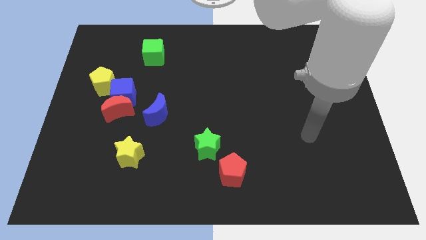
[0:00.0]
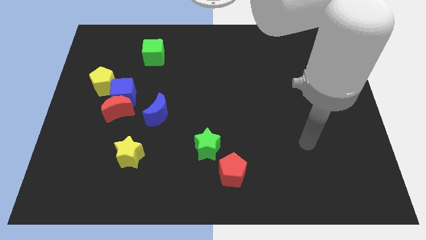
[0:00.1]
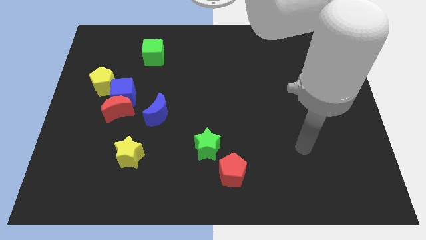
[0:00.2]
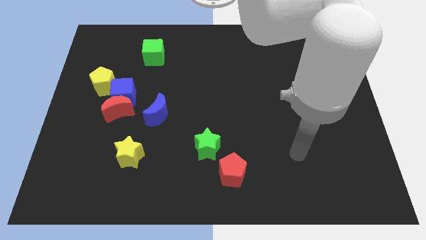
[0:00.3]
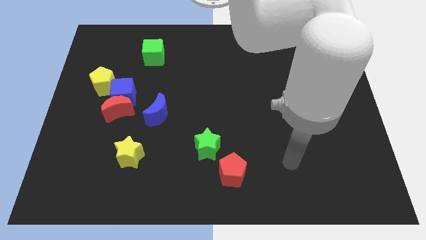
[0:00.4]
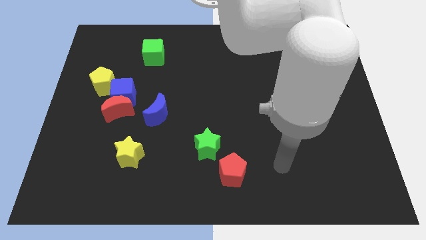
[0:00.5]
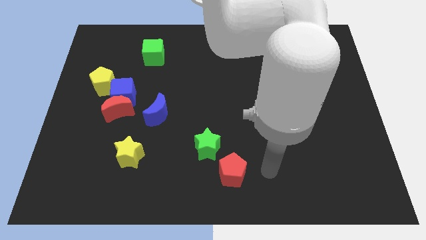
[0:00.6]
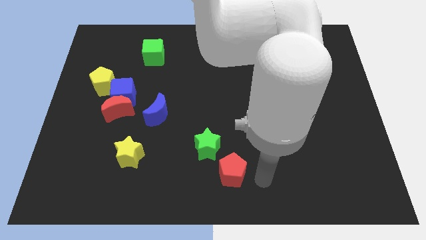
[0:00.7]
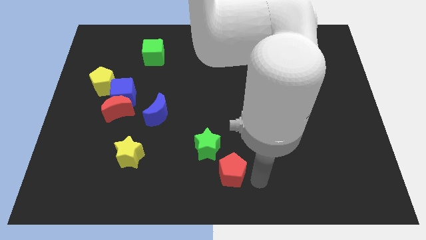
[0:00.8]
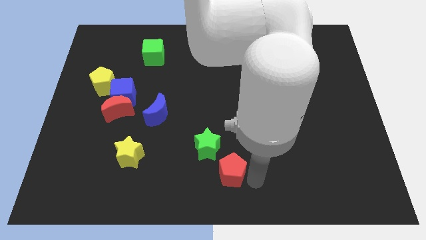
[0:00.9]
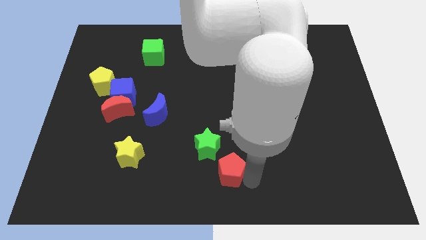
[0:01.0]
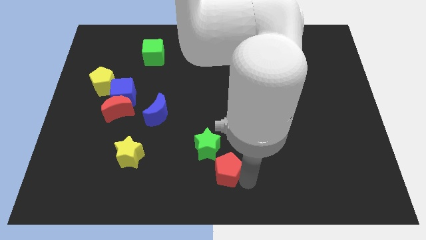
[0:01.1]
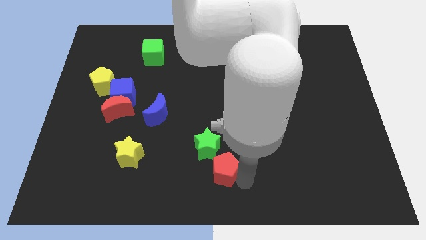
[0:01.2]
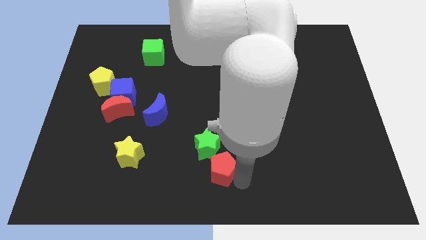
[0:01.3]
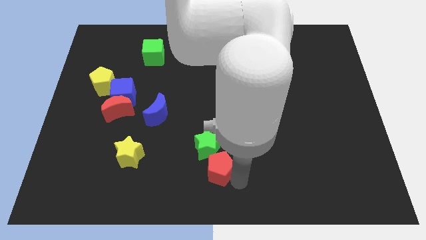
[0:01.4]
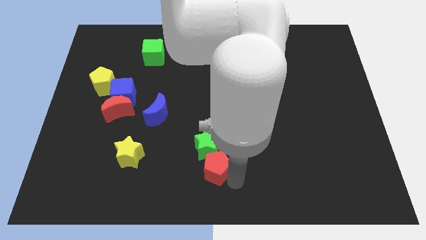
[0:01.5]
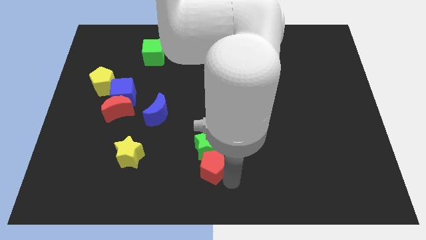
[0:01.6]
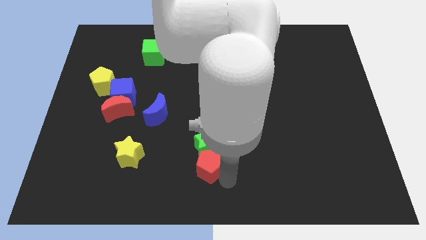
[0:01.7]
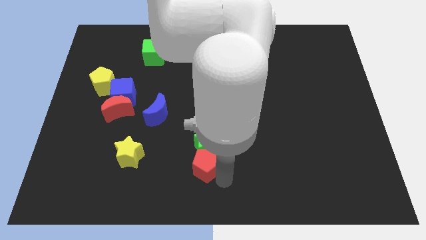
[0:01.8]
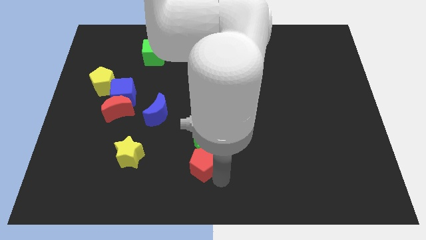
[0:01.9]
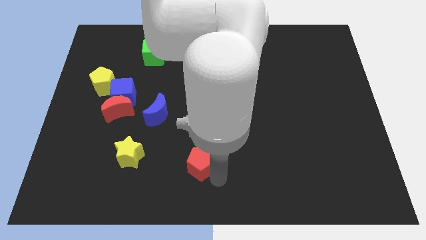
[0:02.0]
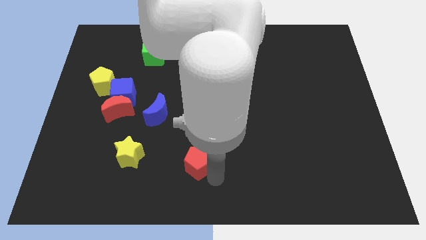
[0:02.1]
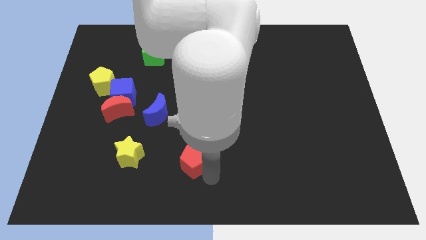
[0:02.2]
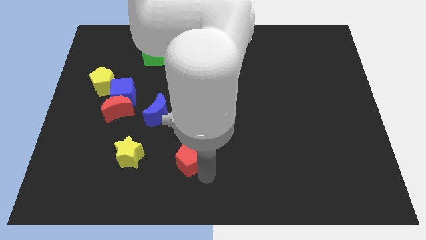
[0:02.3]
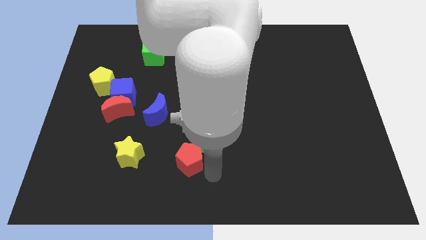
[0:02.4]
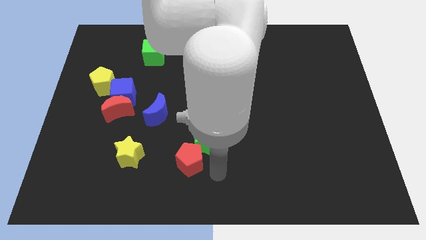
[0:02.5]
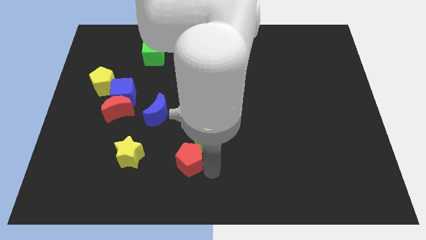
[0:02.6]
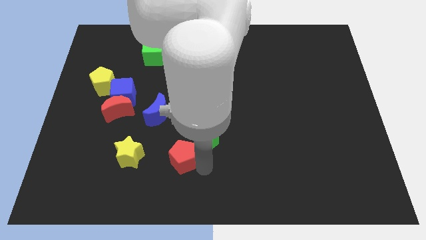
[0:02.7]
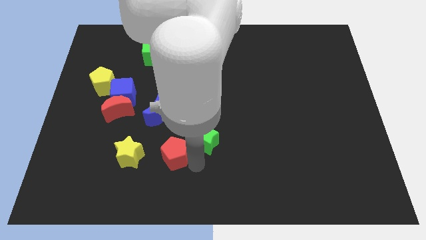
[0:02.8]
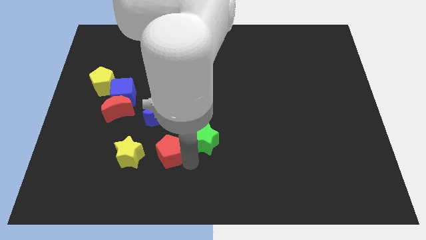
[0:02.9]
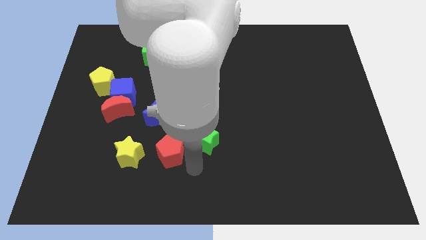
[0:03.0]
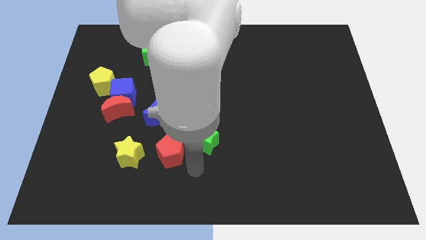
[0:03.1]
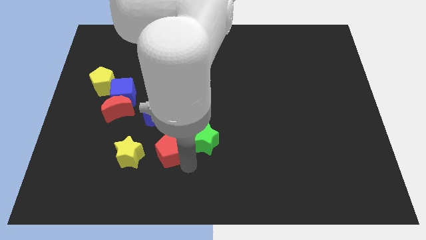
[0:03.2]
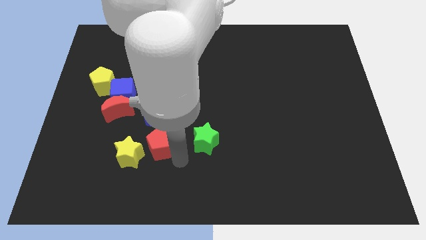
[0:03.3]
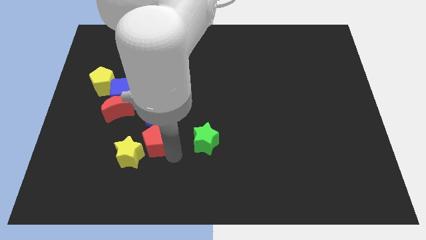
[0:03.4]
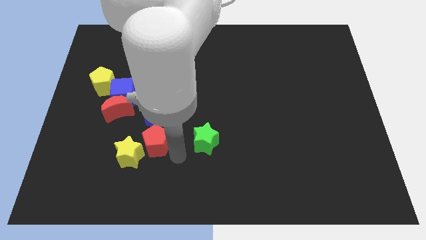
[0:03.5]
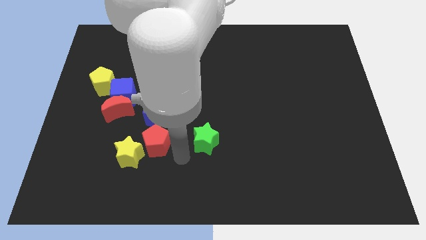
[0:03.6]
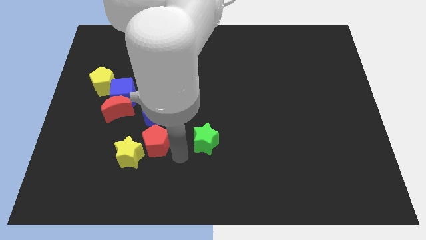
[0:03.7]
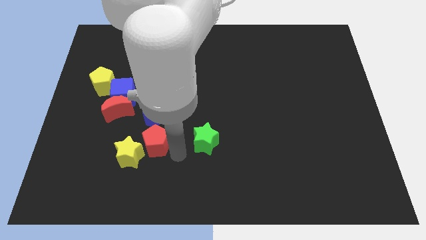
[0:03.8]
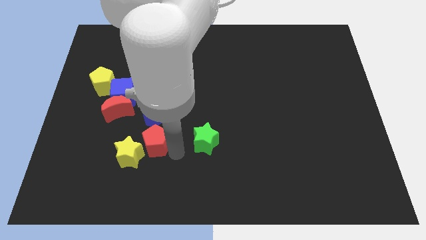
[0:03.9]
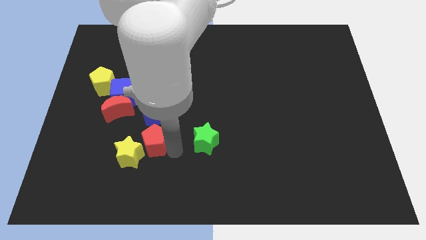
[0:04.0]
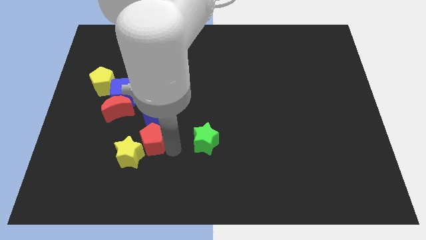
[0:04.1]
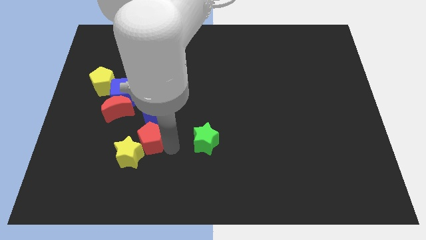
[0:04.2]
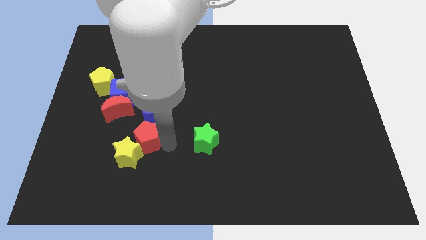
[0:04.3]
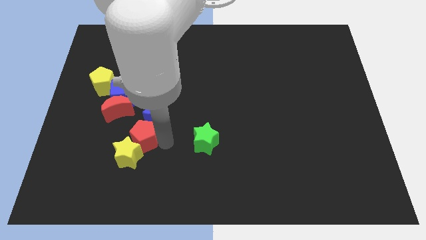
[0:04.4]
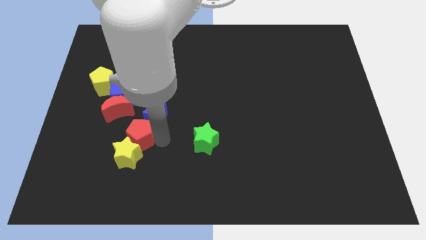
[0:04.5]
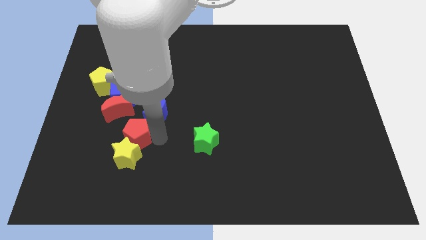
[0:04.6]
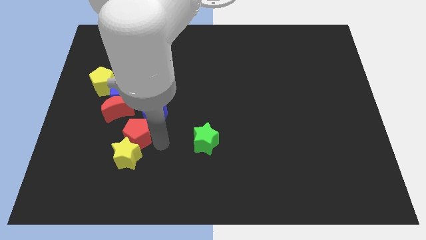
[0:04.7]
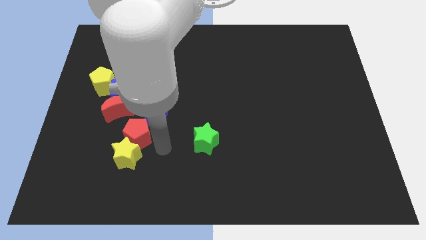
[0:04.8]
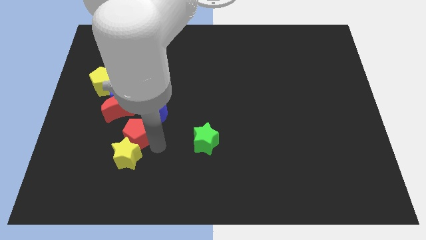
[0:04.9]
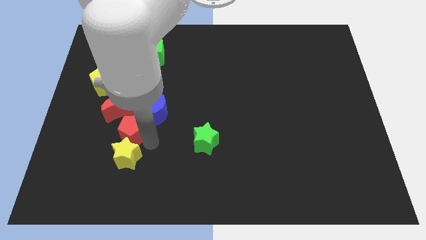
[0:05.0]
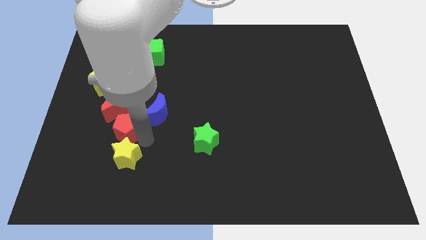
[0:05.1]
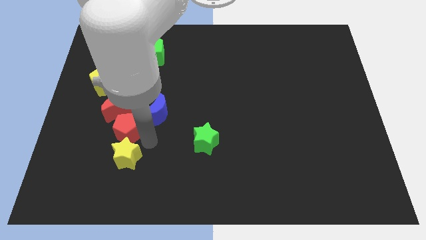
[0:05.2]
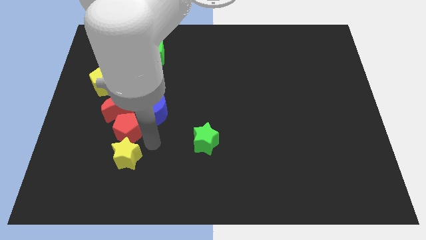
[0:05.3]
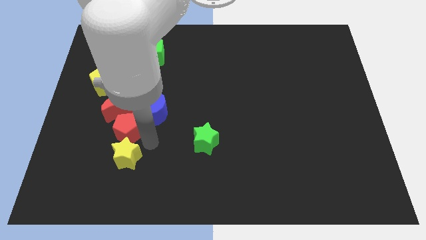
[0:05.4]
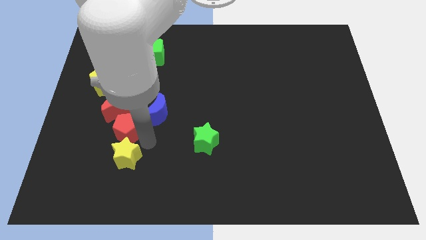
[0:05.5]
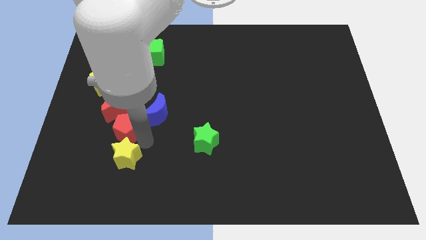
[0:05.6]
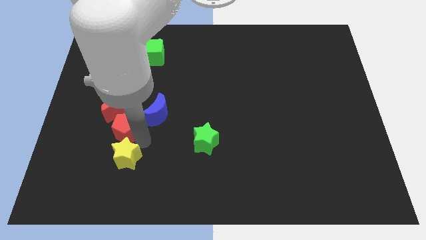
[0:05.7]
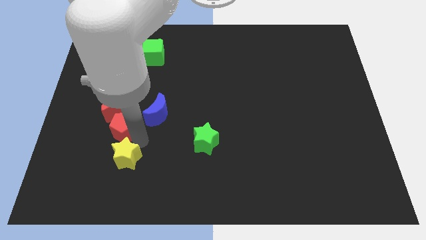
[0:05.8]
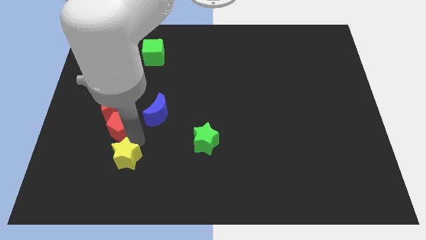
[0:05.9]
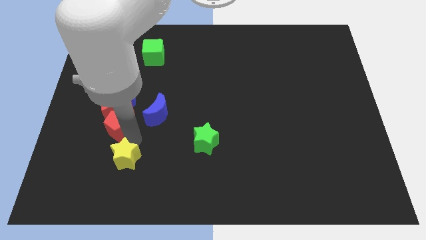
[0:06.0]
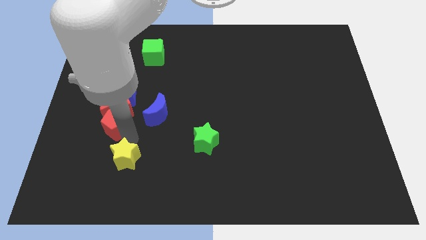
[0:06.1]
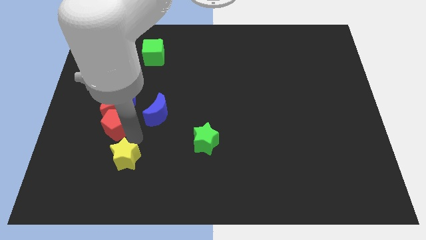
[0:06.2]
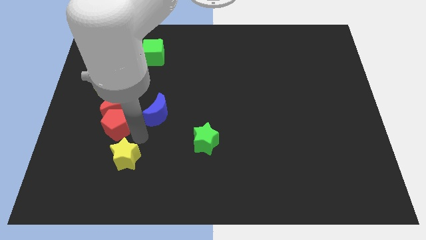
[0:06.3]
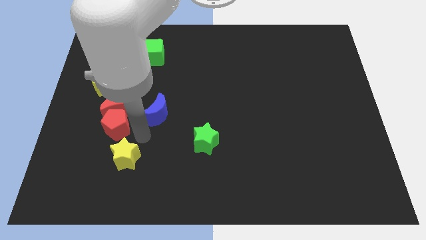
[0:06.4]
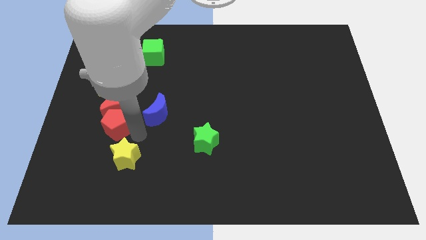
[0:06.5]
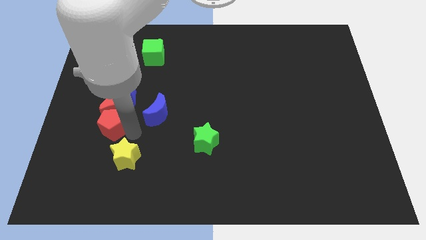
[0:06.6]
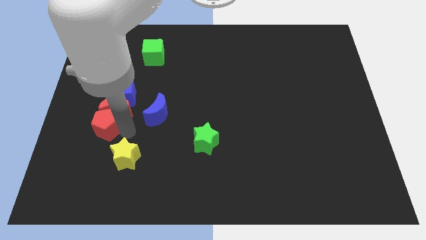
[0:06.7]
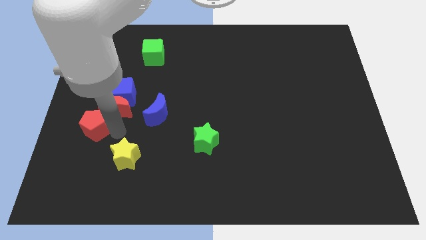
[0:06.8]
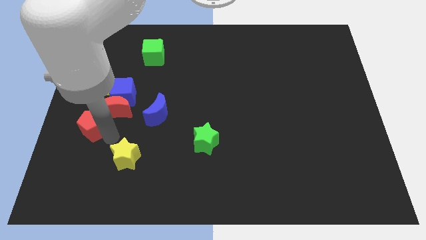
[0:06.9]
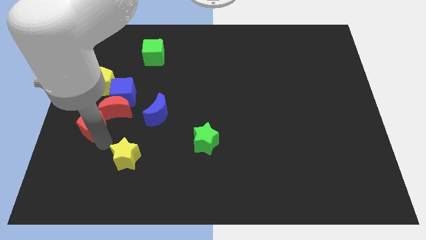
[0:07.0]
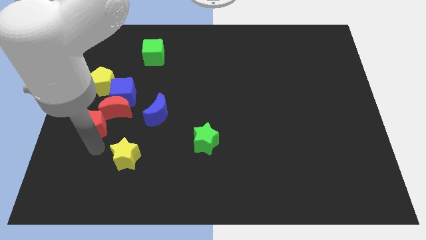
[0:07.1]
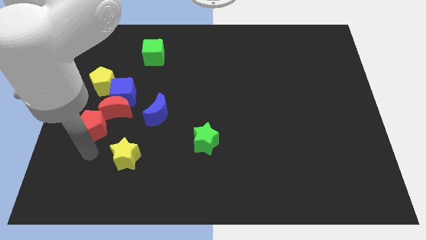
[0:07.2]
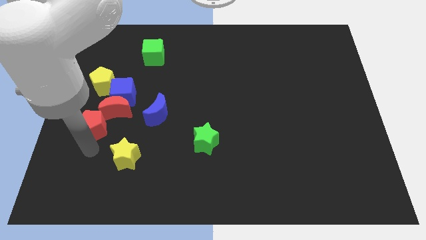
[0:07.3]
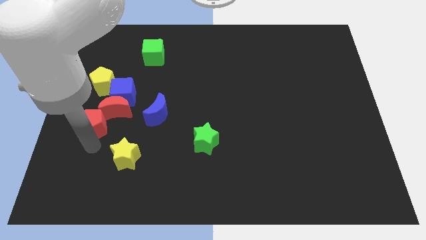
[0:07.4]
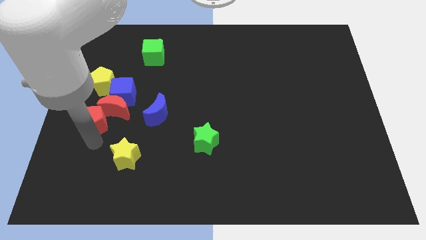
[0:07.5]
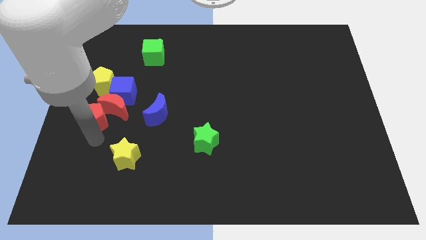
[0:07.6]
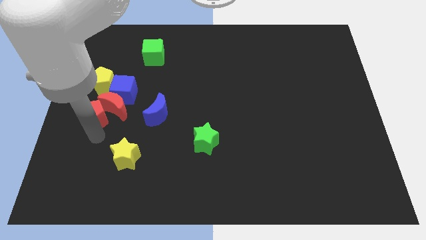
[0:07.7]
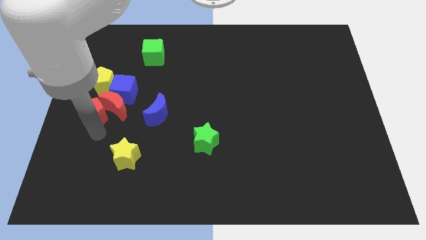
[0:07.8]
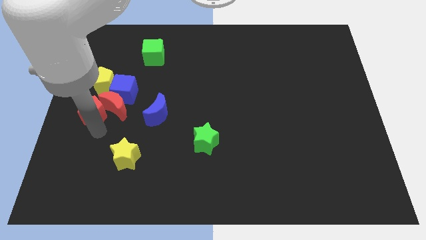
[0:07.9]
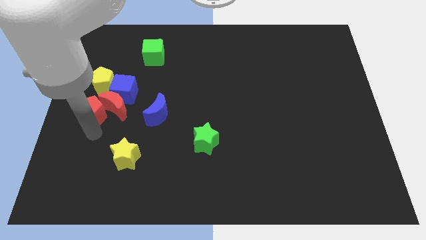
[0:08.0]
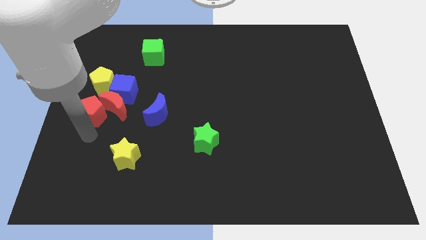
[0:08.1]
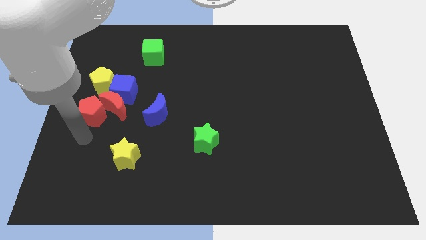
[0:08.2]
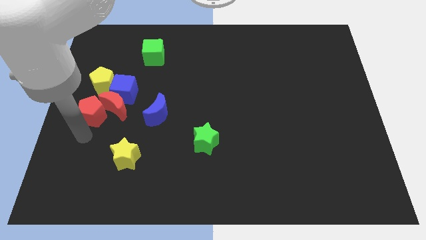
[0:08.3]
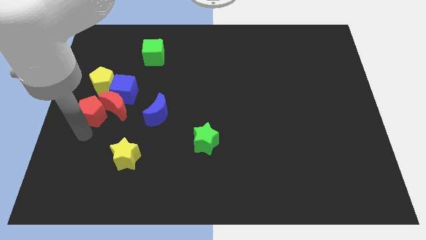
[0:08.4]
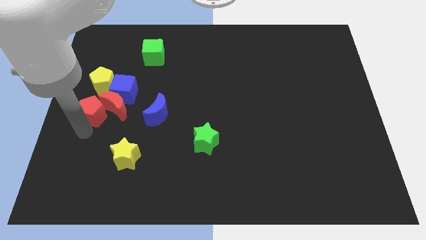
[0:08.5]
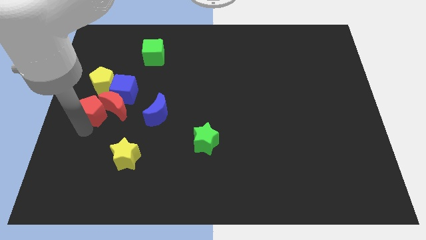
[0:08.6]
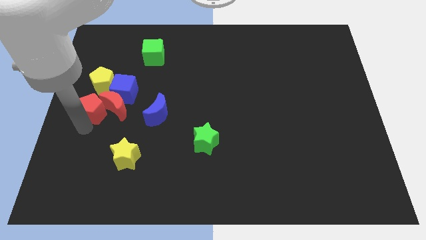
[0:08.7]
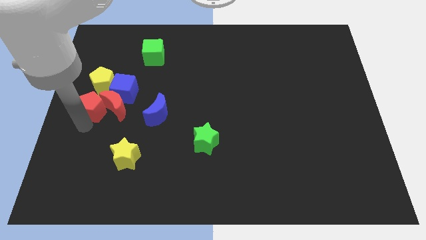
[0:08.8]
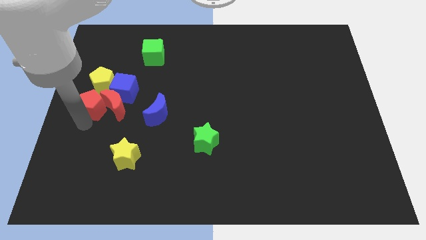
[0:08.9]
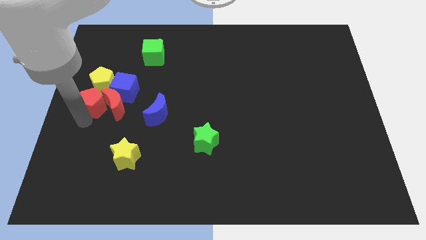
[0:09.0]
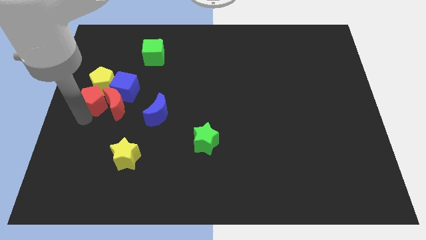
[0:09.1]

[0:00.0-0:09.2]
push the red pentagon next to the yellow pentagon
